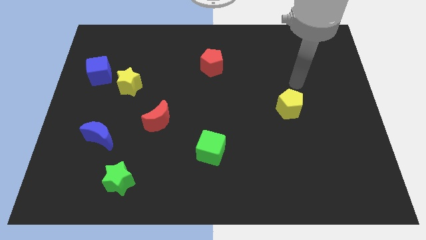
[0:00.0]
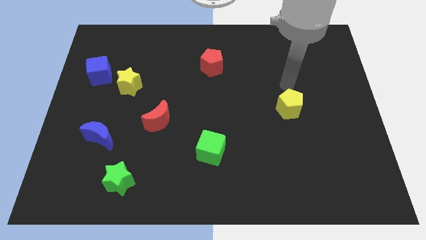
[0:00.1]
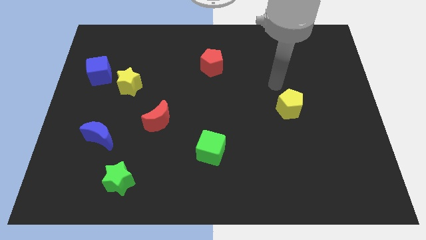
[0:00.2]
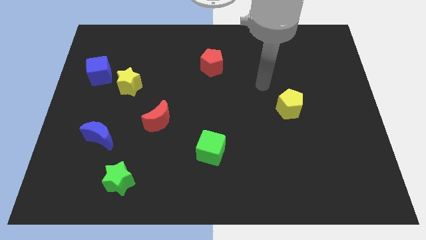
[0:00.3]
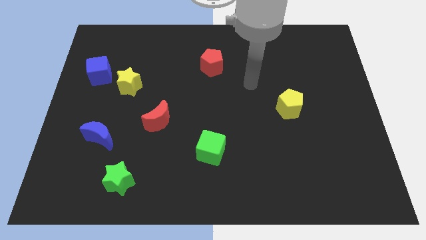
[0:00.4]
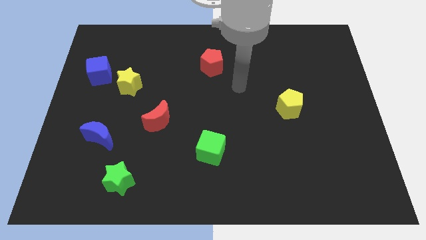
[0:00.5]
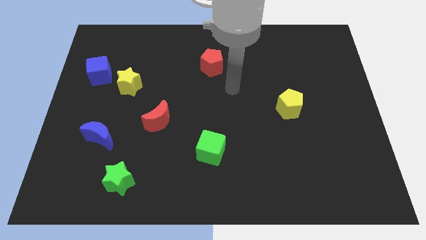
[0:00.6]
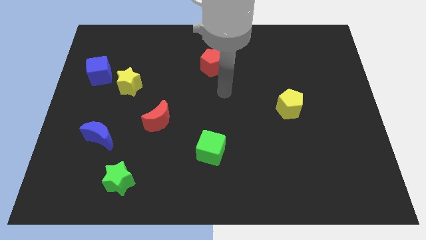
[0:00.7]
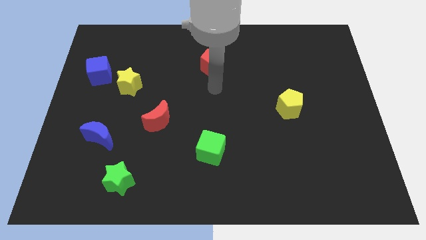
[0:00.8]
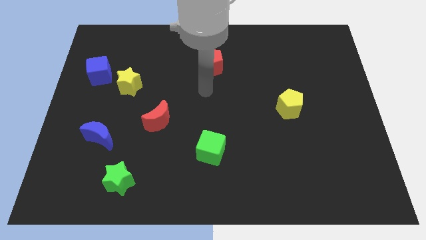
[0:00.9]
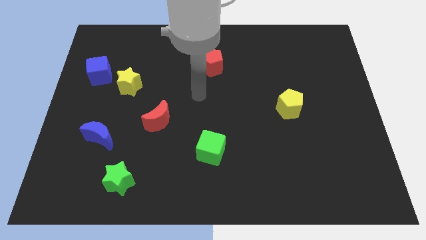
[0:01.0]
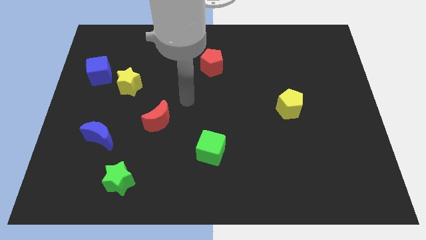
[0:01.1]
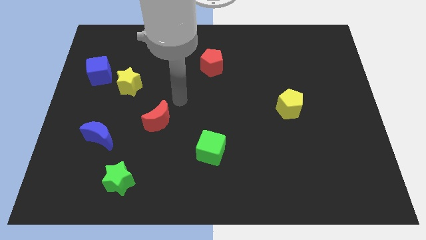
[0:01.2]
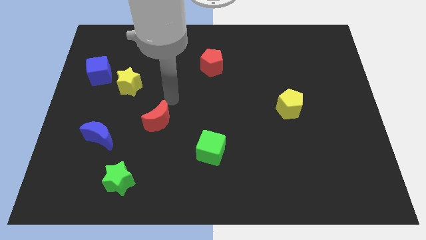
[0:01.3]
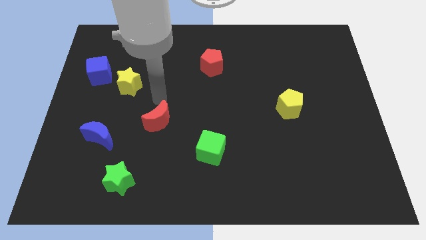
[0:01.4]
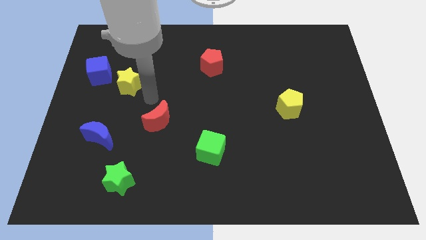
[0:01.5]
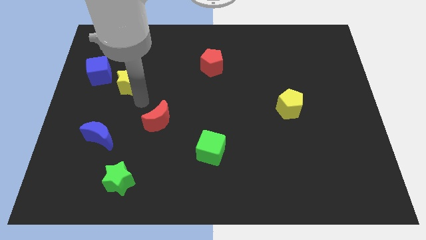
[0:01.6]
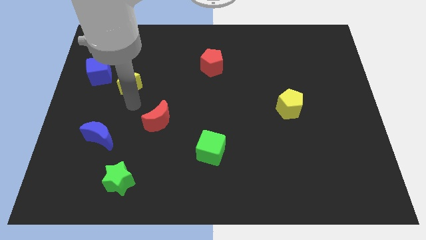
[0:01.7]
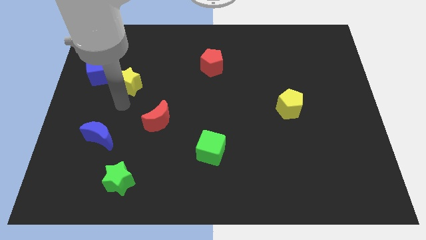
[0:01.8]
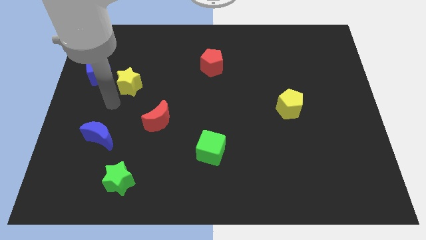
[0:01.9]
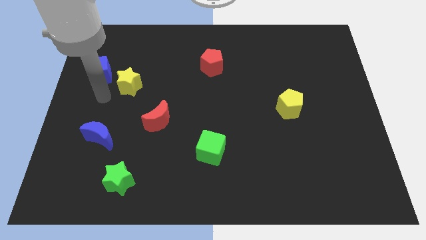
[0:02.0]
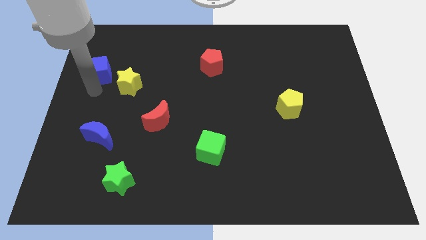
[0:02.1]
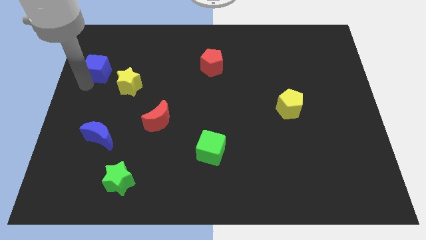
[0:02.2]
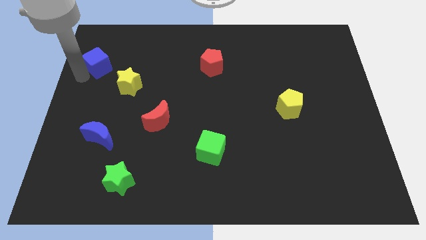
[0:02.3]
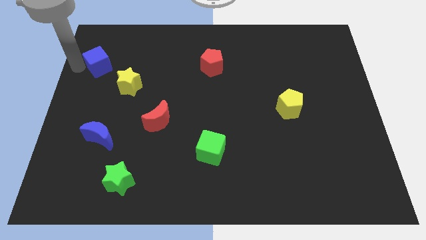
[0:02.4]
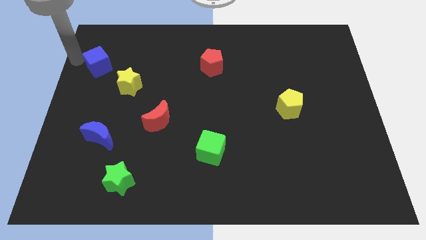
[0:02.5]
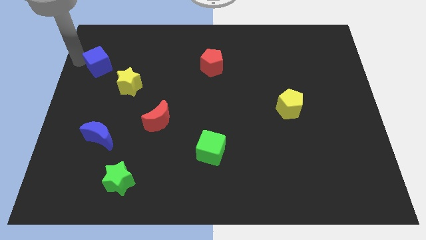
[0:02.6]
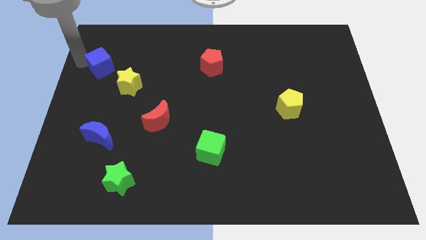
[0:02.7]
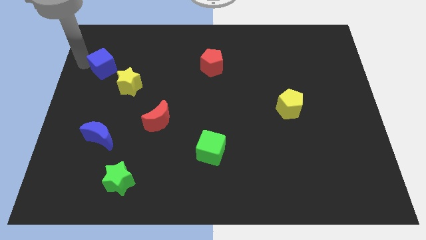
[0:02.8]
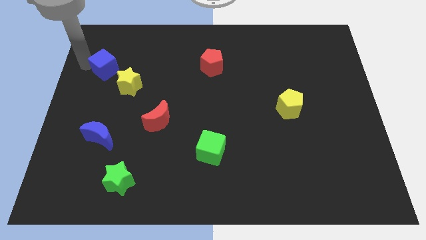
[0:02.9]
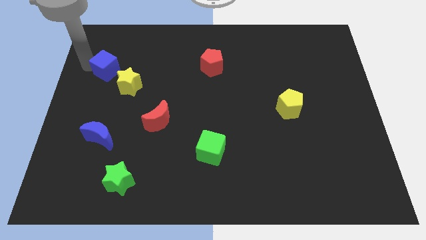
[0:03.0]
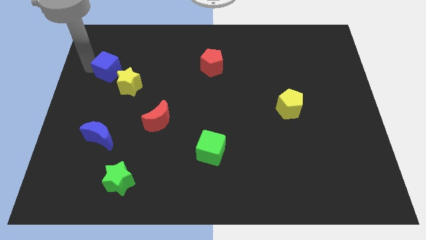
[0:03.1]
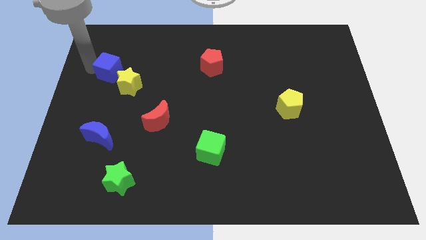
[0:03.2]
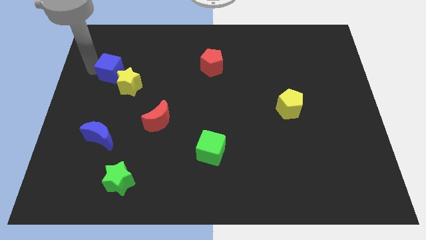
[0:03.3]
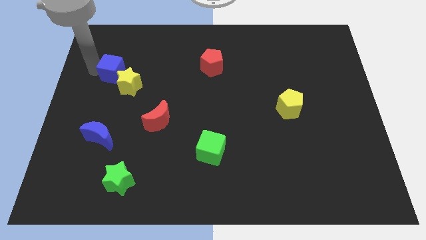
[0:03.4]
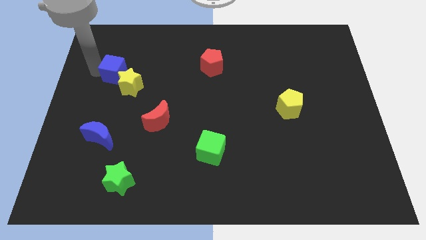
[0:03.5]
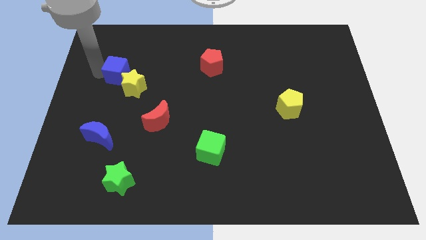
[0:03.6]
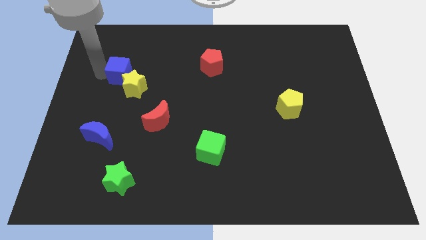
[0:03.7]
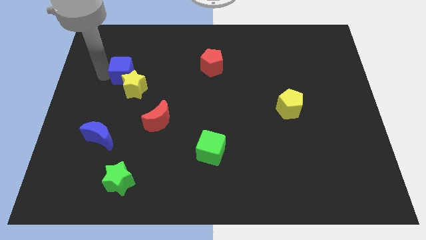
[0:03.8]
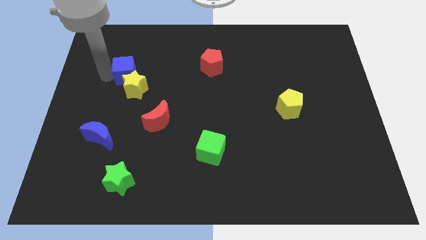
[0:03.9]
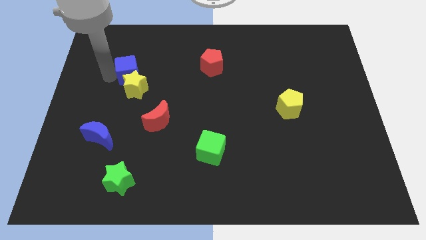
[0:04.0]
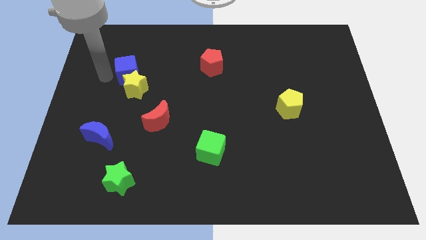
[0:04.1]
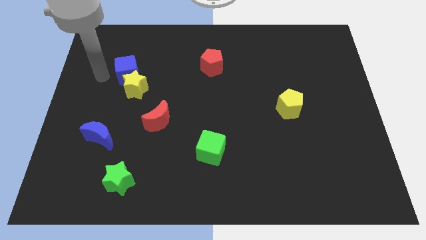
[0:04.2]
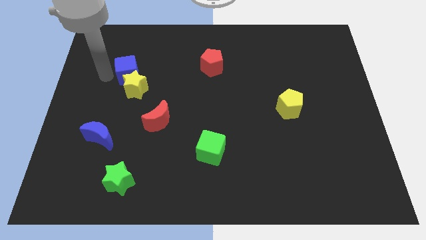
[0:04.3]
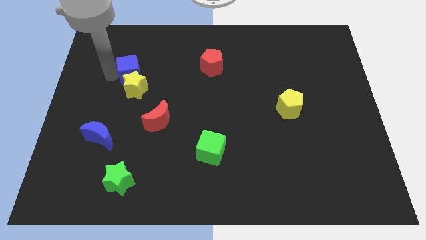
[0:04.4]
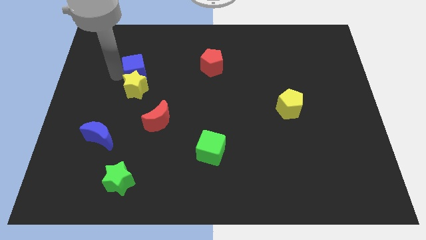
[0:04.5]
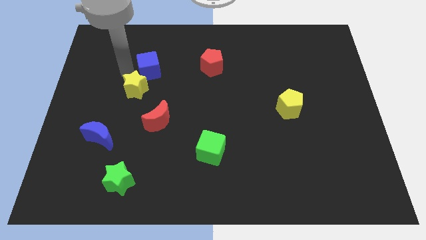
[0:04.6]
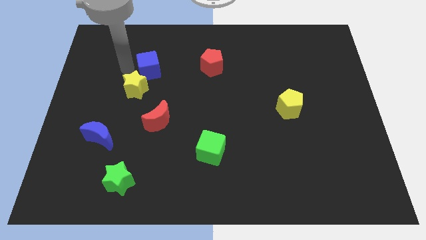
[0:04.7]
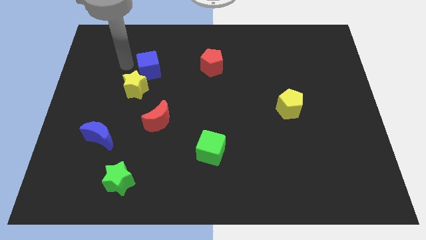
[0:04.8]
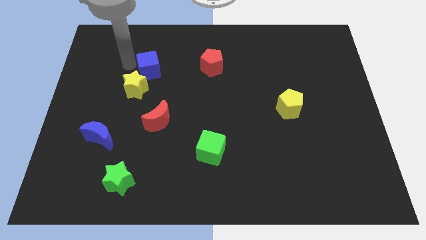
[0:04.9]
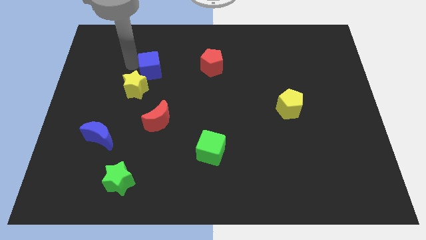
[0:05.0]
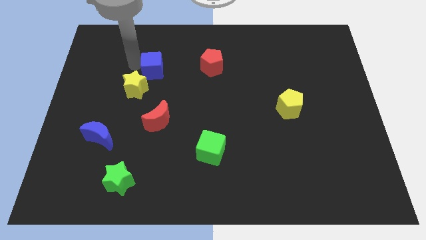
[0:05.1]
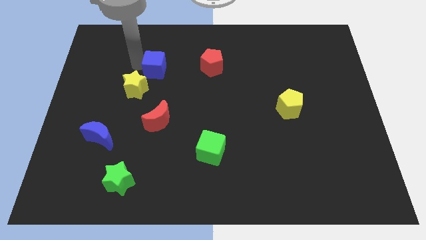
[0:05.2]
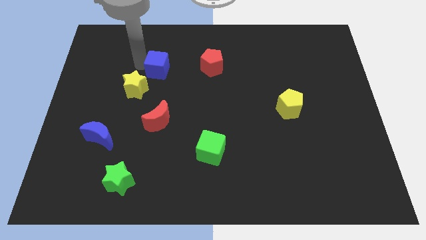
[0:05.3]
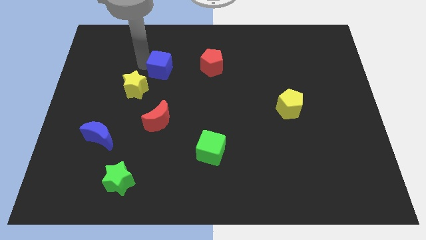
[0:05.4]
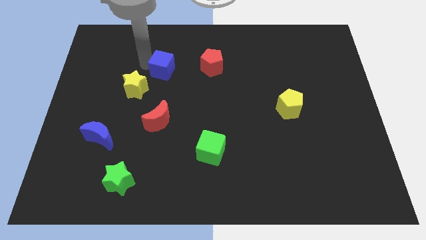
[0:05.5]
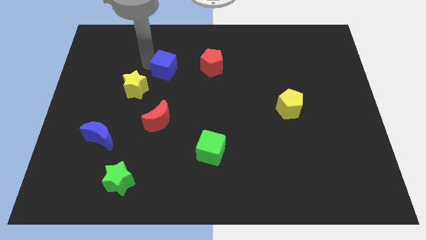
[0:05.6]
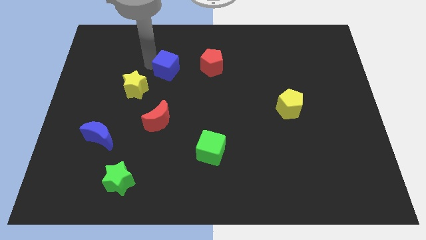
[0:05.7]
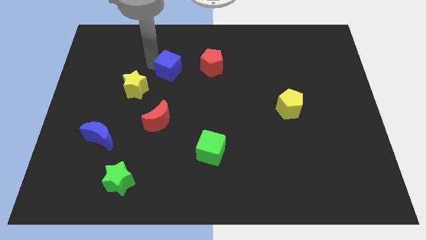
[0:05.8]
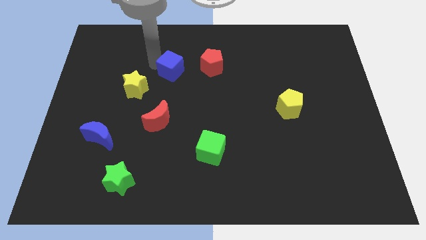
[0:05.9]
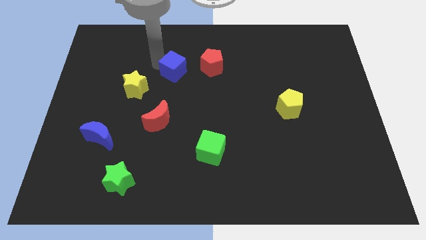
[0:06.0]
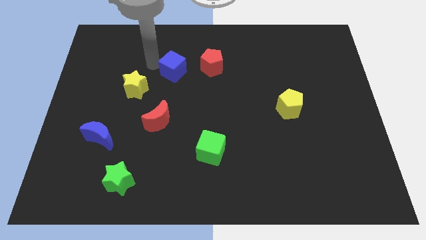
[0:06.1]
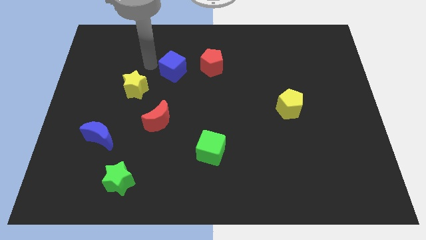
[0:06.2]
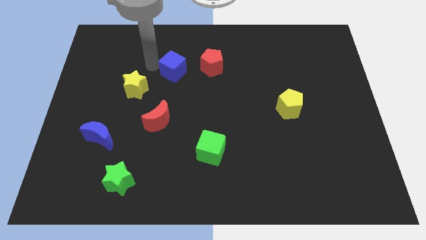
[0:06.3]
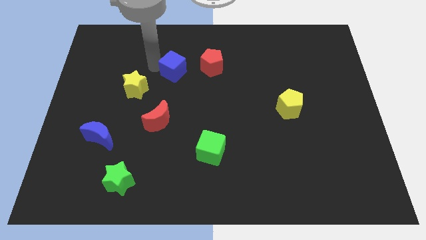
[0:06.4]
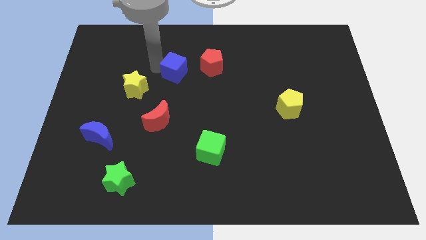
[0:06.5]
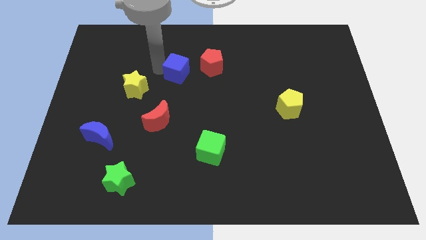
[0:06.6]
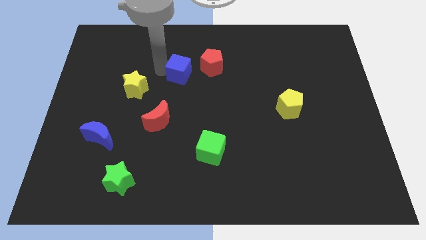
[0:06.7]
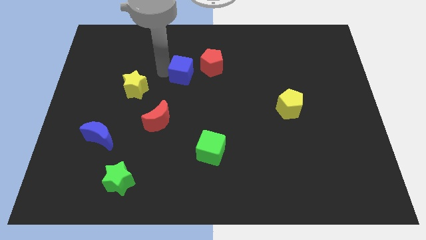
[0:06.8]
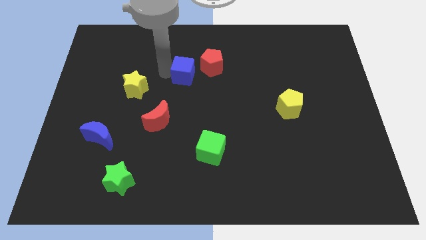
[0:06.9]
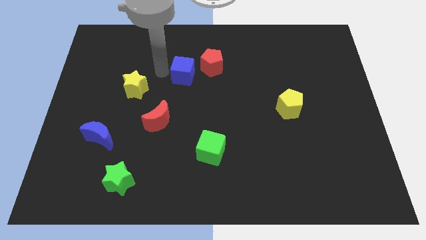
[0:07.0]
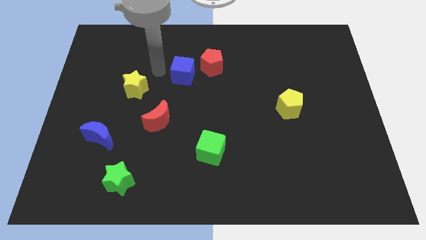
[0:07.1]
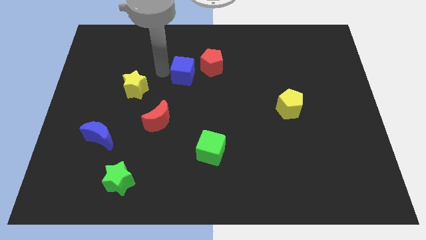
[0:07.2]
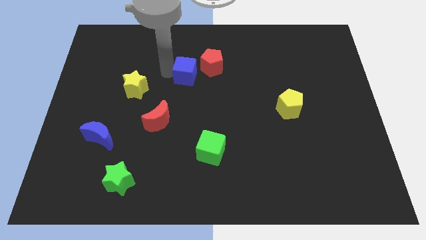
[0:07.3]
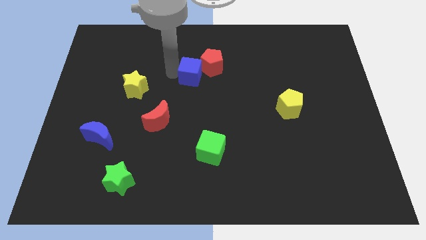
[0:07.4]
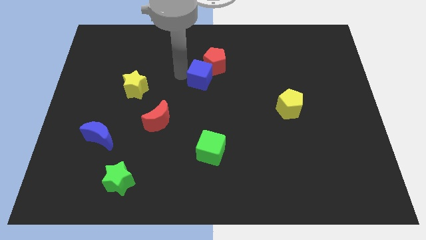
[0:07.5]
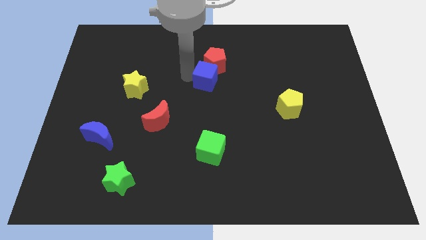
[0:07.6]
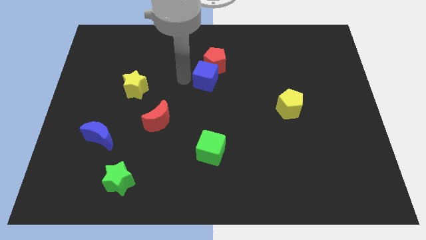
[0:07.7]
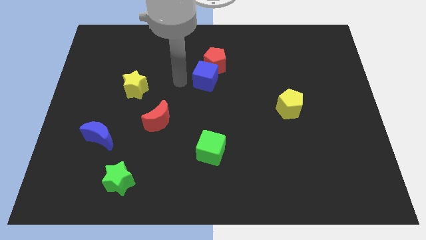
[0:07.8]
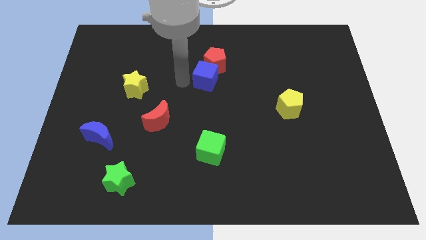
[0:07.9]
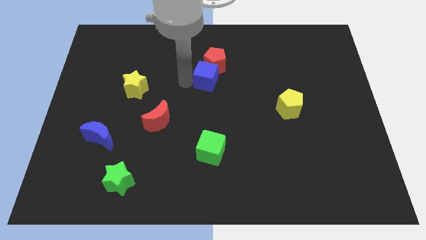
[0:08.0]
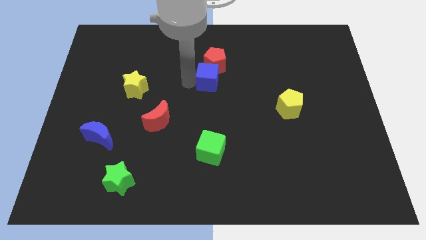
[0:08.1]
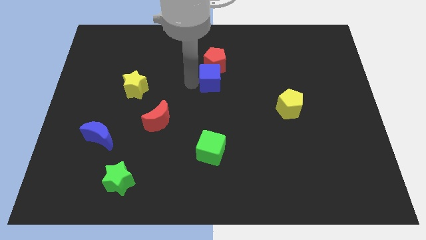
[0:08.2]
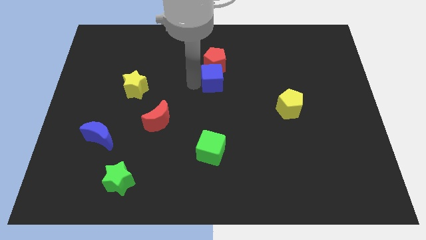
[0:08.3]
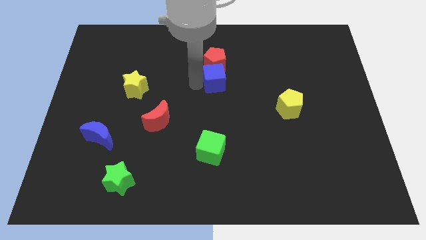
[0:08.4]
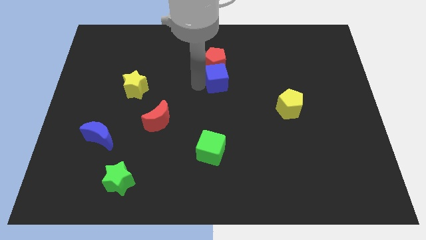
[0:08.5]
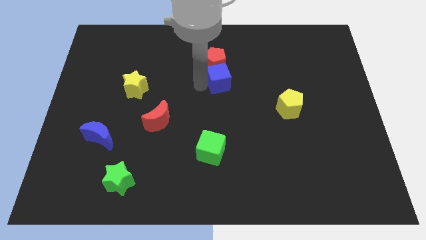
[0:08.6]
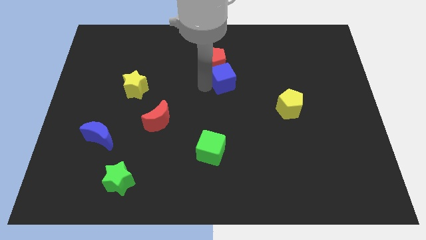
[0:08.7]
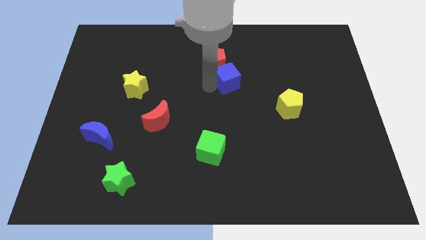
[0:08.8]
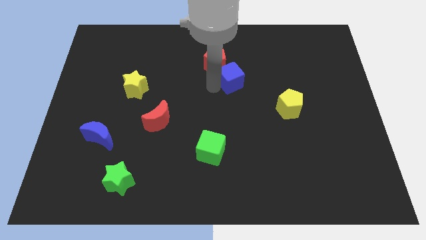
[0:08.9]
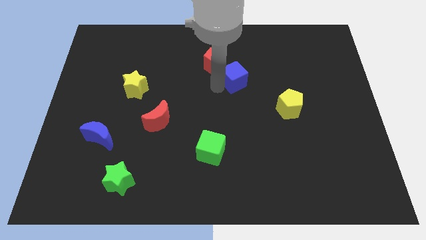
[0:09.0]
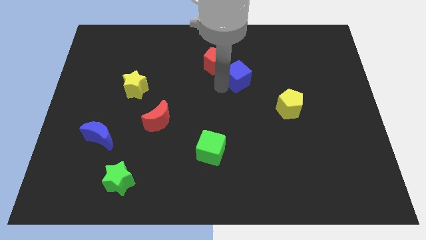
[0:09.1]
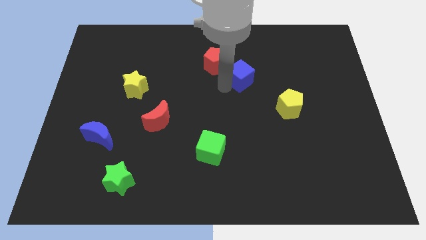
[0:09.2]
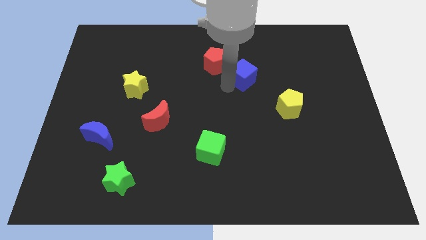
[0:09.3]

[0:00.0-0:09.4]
push the blue cube to the right of the red pentagon
